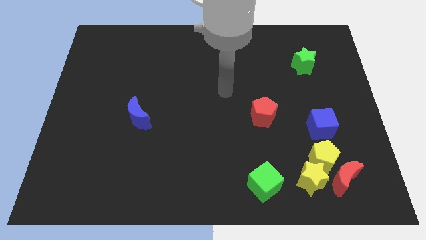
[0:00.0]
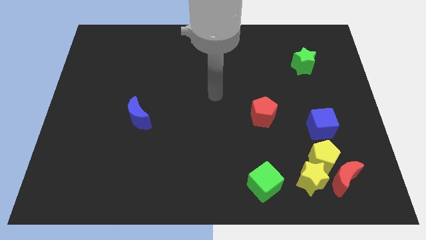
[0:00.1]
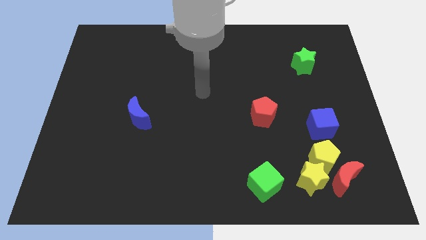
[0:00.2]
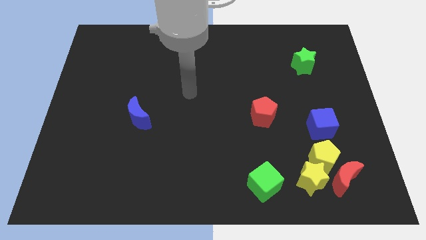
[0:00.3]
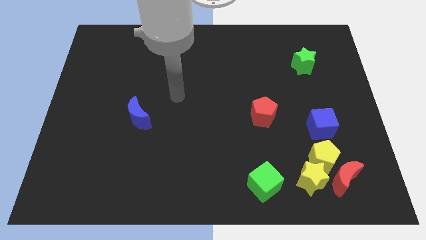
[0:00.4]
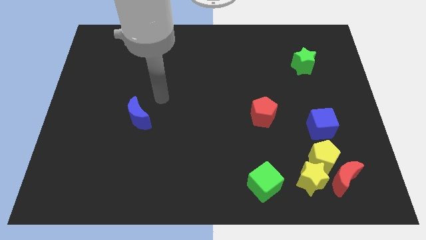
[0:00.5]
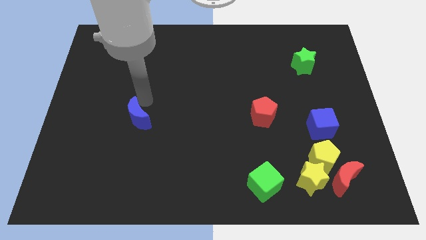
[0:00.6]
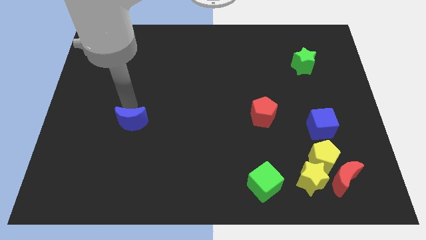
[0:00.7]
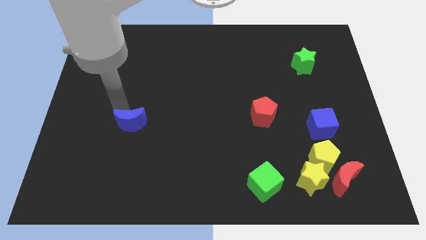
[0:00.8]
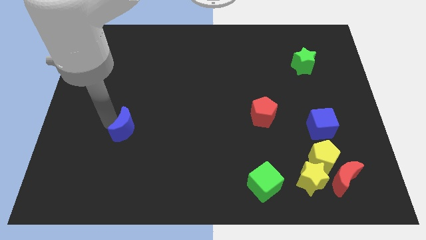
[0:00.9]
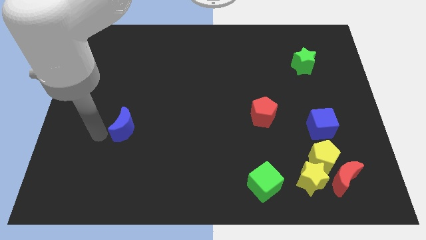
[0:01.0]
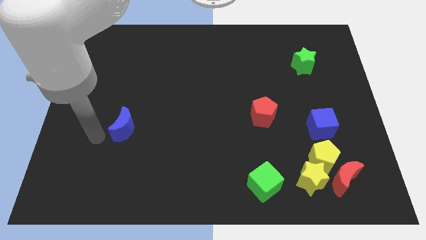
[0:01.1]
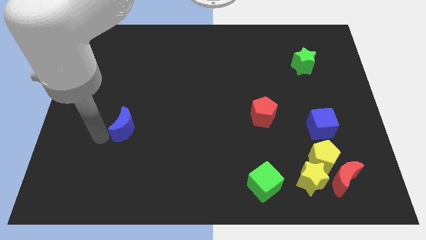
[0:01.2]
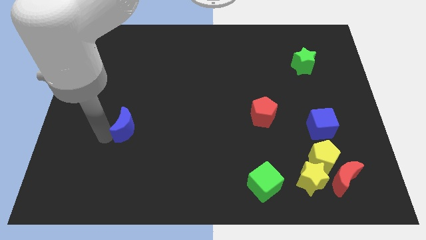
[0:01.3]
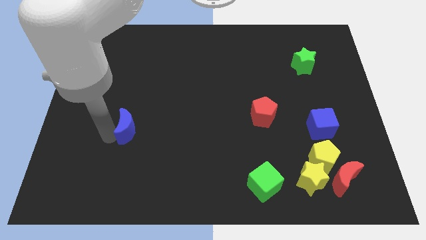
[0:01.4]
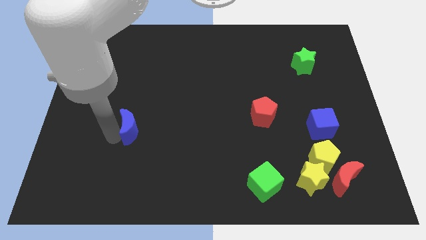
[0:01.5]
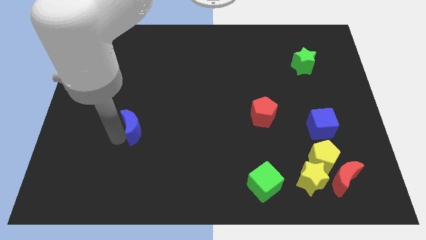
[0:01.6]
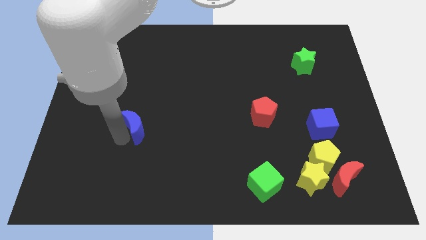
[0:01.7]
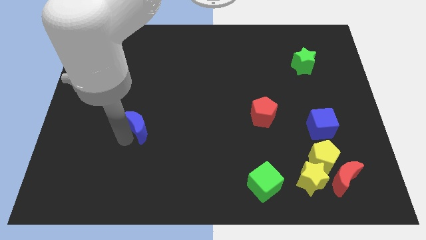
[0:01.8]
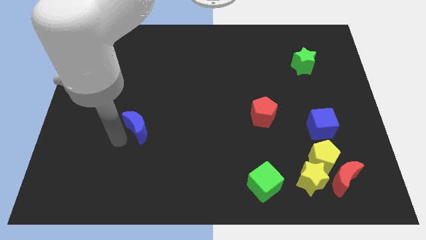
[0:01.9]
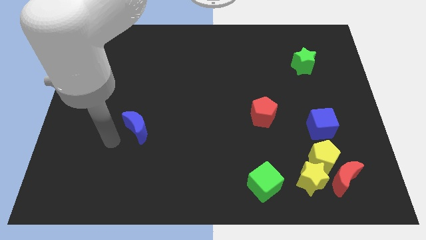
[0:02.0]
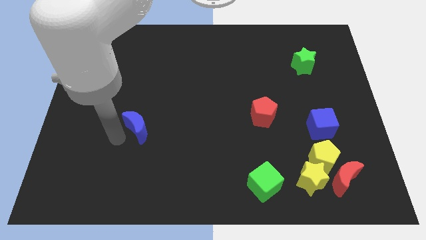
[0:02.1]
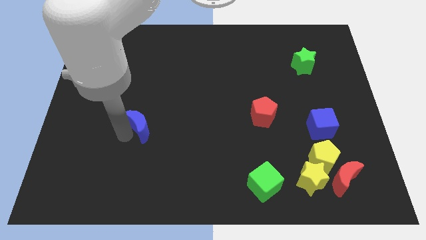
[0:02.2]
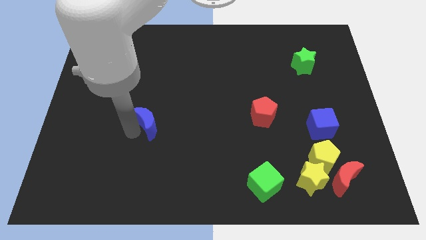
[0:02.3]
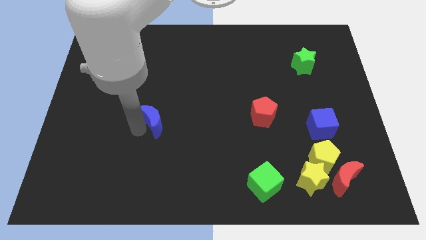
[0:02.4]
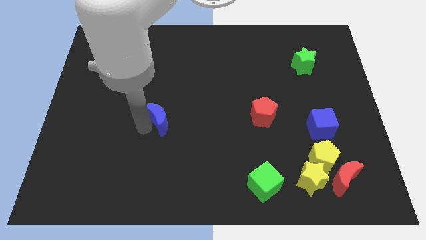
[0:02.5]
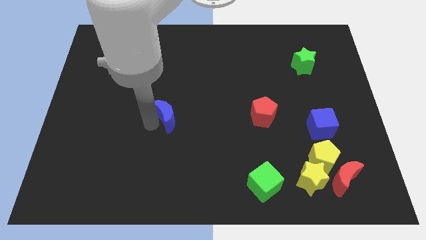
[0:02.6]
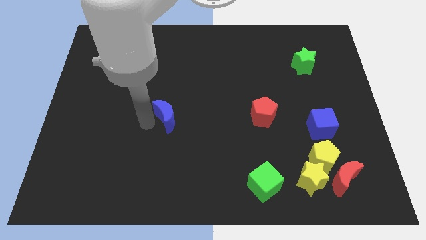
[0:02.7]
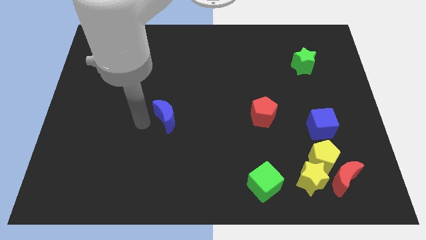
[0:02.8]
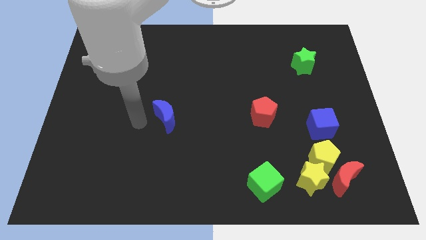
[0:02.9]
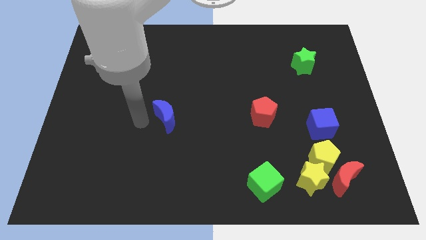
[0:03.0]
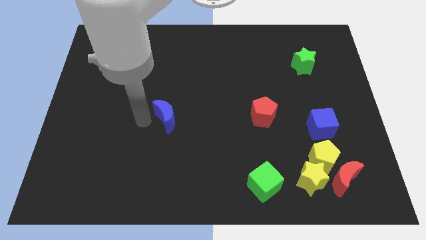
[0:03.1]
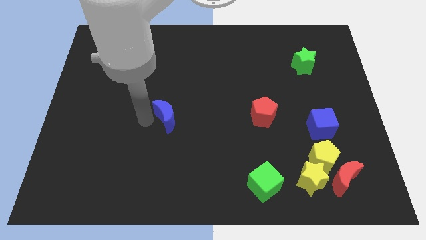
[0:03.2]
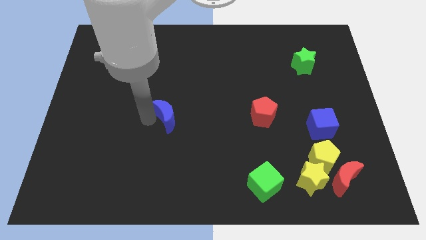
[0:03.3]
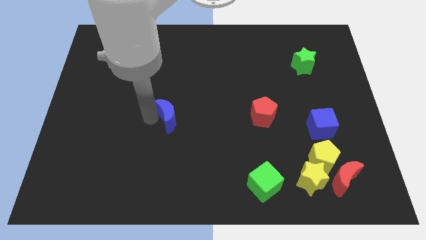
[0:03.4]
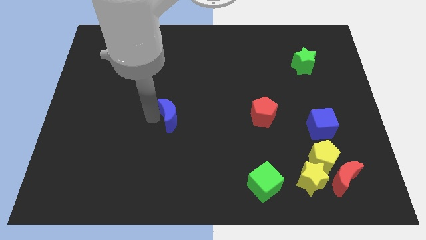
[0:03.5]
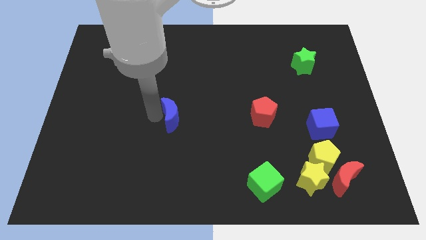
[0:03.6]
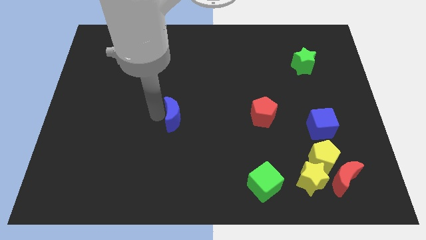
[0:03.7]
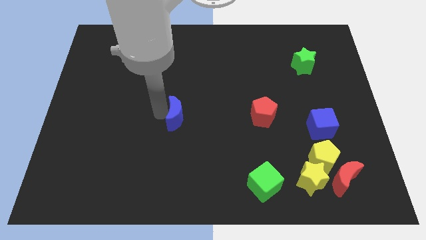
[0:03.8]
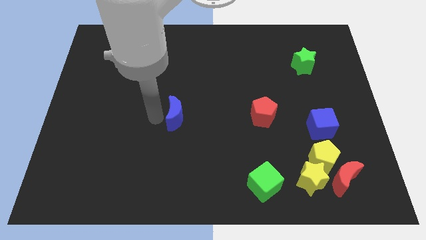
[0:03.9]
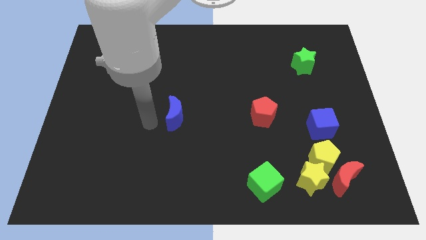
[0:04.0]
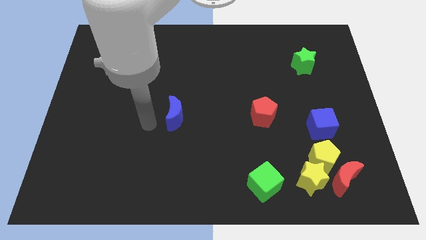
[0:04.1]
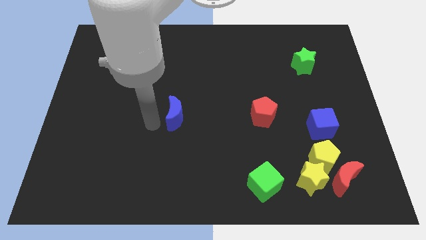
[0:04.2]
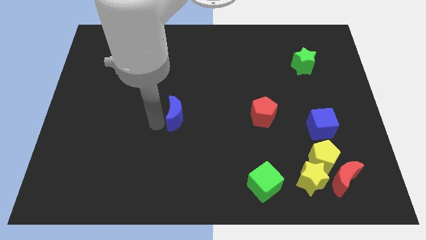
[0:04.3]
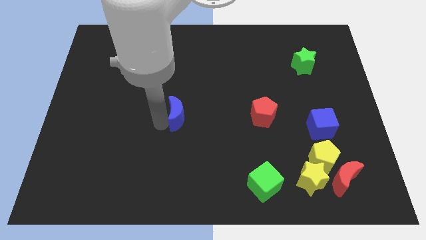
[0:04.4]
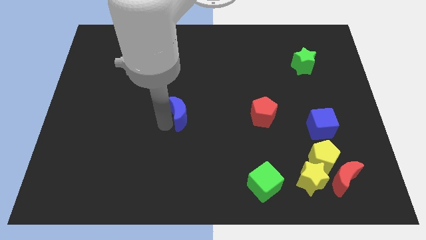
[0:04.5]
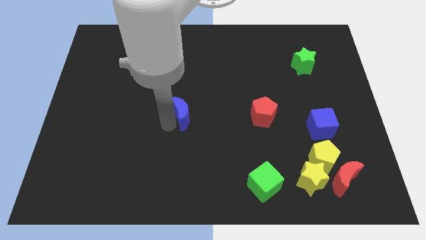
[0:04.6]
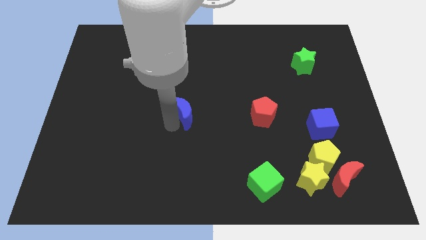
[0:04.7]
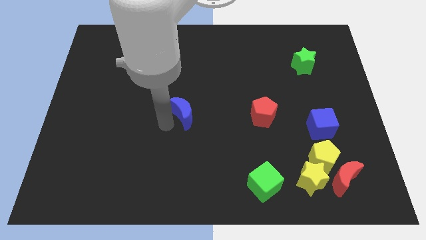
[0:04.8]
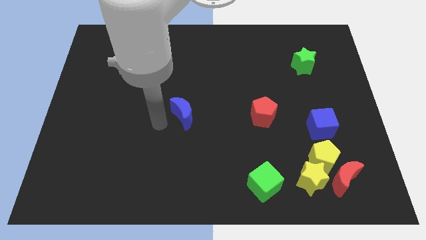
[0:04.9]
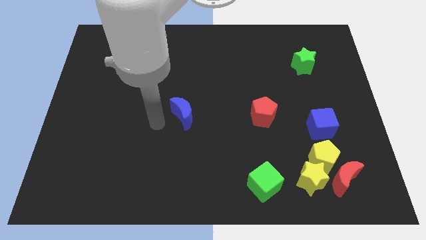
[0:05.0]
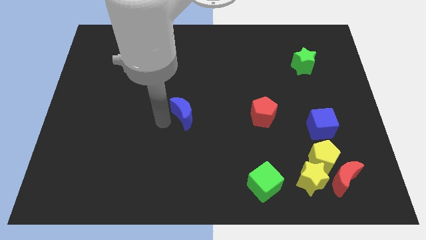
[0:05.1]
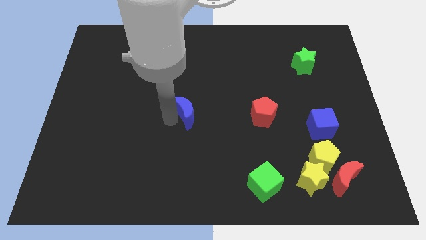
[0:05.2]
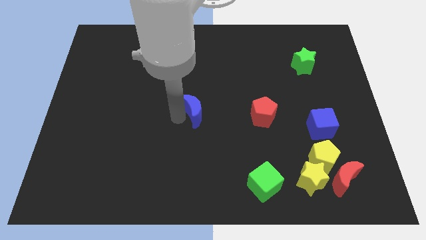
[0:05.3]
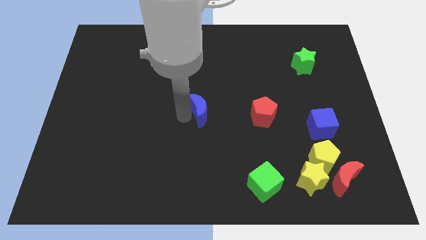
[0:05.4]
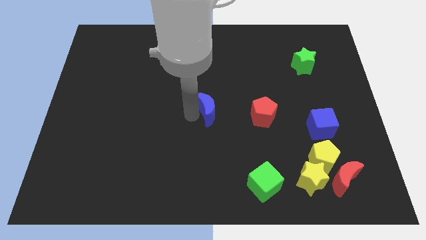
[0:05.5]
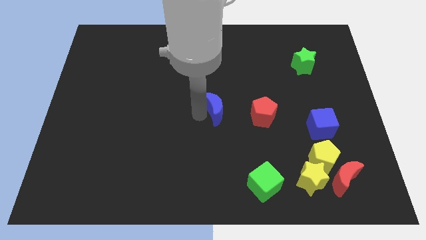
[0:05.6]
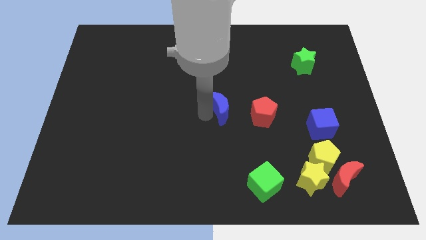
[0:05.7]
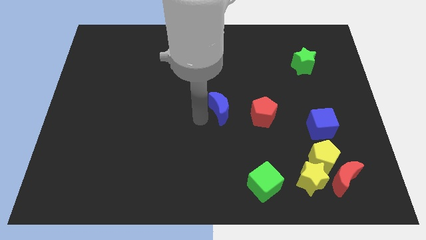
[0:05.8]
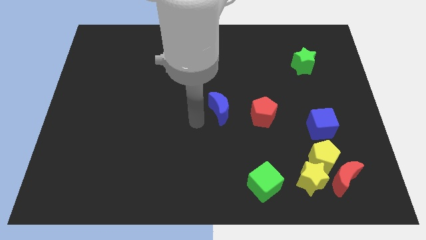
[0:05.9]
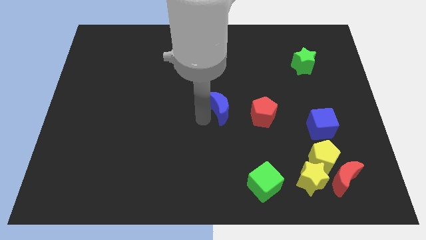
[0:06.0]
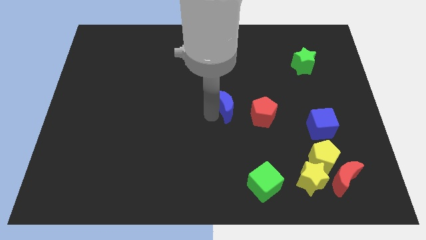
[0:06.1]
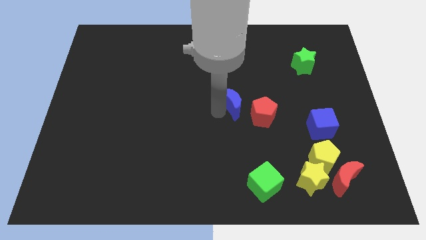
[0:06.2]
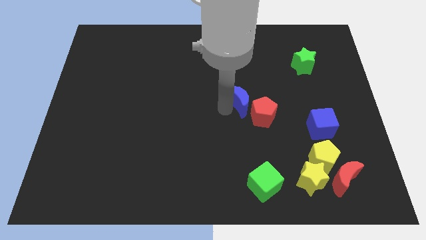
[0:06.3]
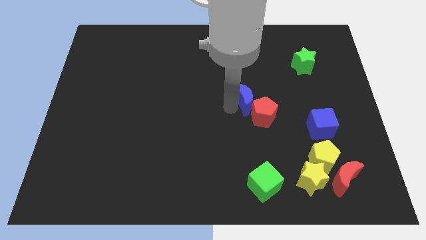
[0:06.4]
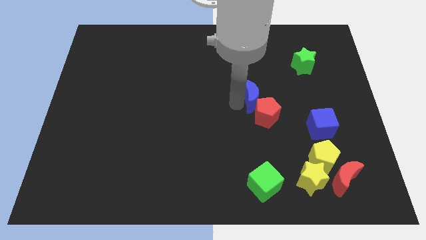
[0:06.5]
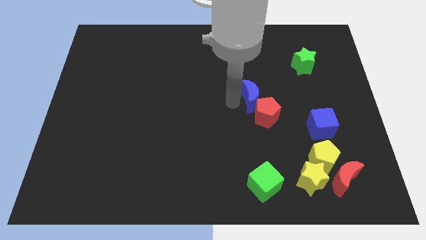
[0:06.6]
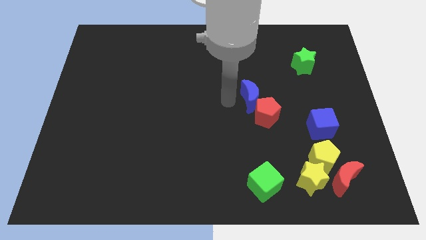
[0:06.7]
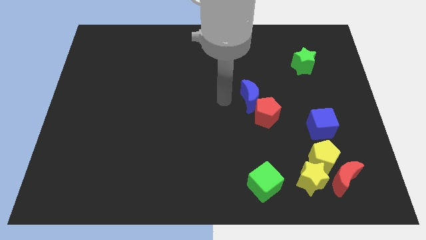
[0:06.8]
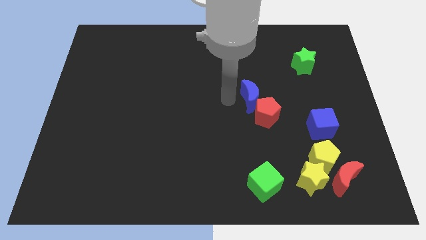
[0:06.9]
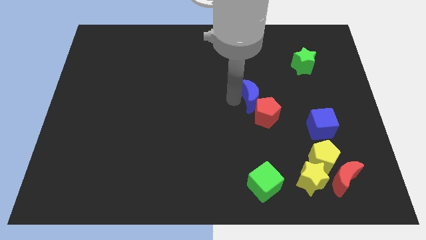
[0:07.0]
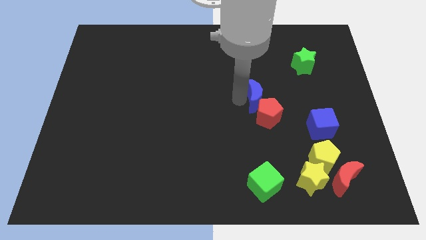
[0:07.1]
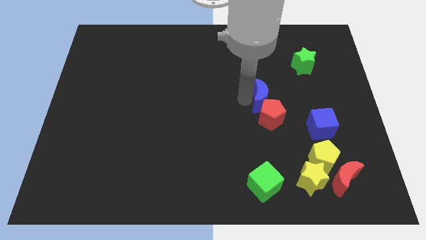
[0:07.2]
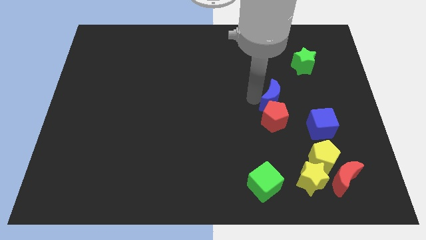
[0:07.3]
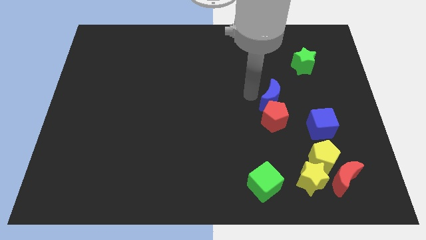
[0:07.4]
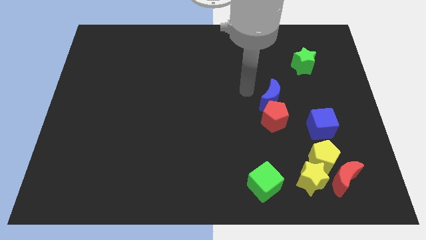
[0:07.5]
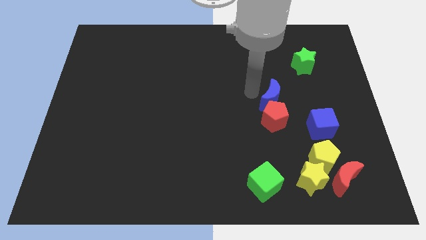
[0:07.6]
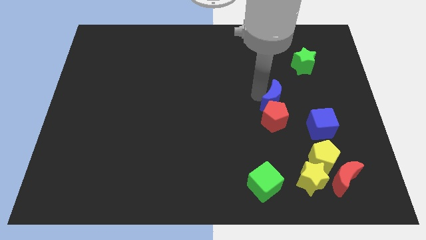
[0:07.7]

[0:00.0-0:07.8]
slide the blue moon to the top left side of the blue cube
